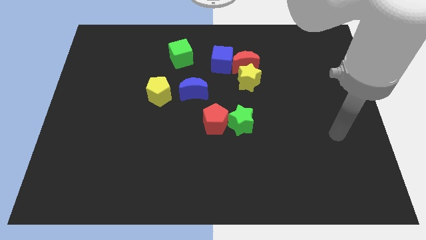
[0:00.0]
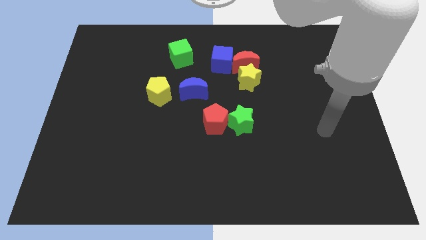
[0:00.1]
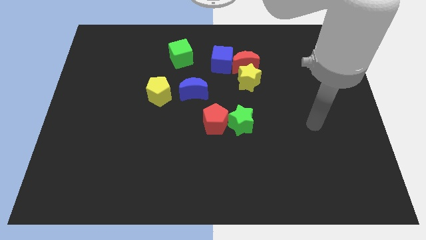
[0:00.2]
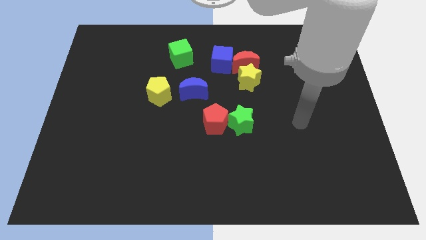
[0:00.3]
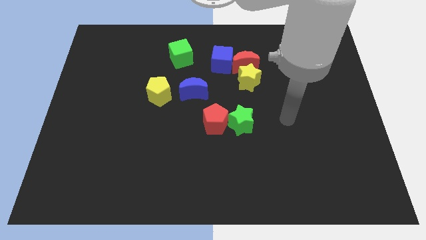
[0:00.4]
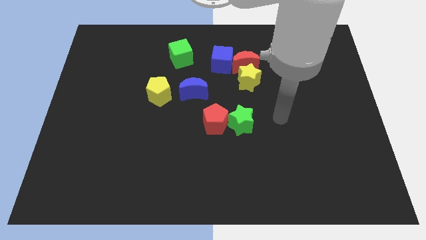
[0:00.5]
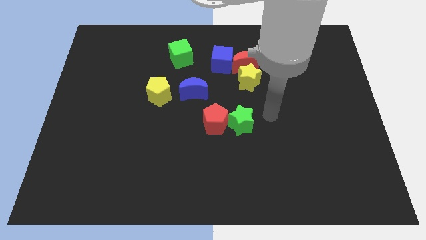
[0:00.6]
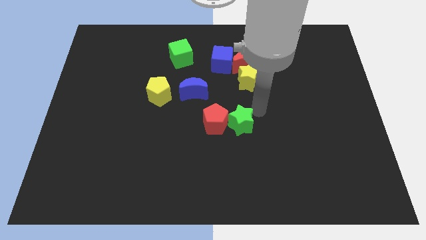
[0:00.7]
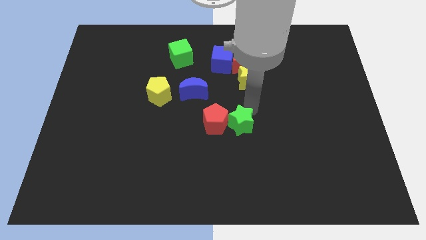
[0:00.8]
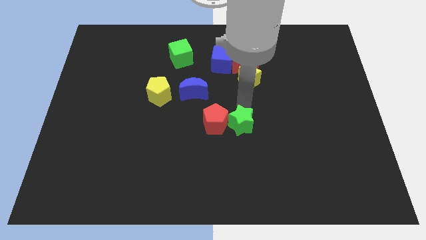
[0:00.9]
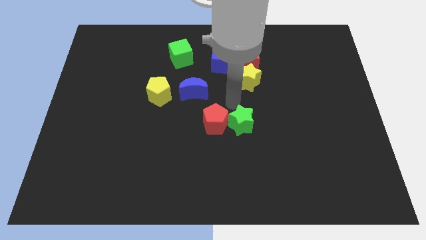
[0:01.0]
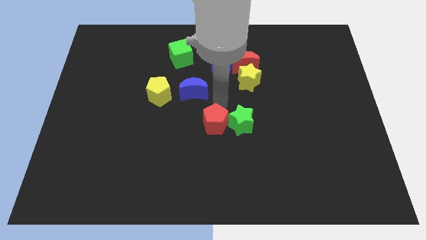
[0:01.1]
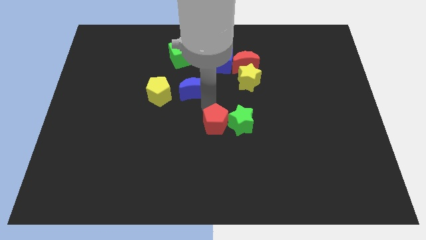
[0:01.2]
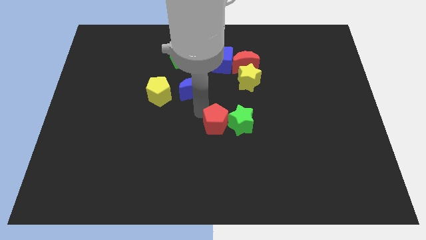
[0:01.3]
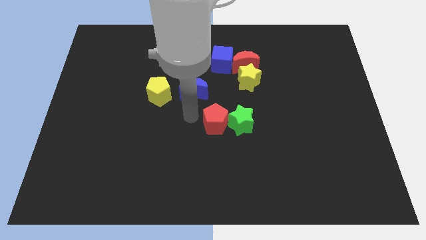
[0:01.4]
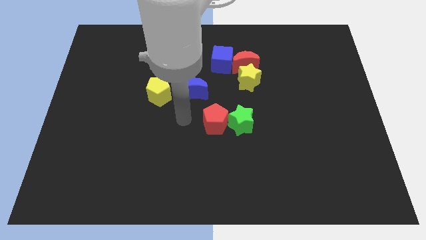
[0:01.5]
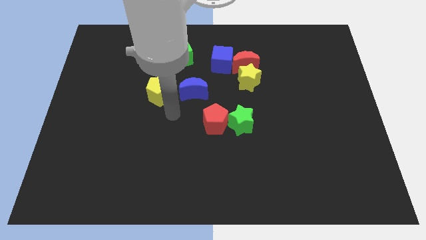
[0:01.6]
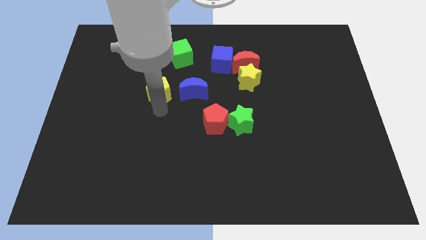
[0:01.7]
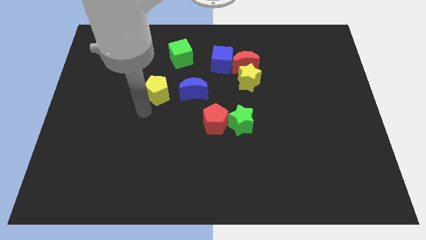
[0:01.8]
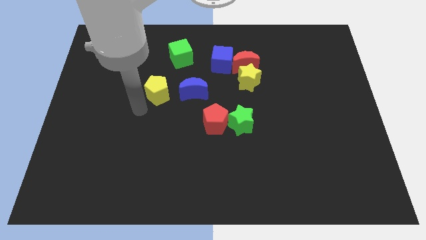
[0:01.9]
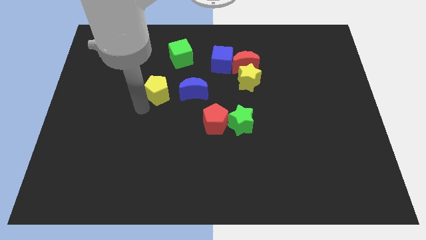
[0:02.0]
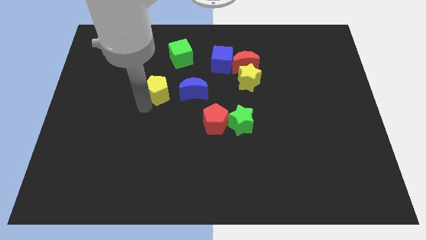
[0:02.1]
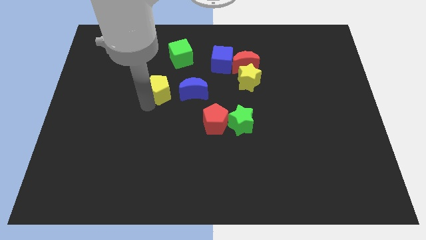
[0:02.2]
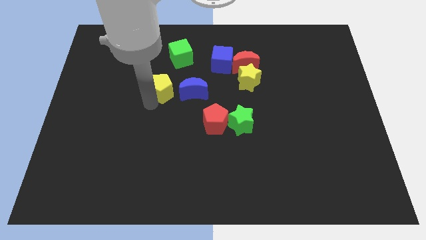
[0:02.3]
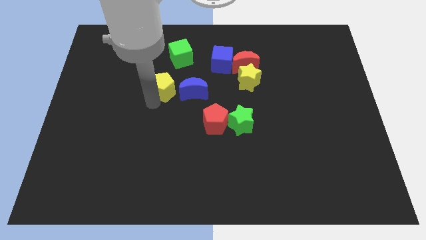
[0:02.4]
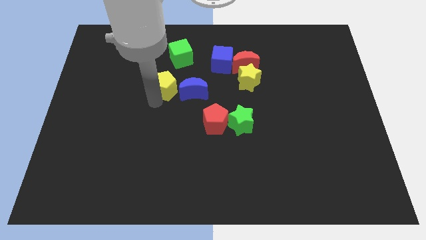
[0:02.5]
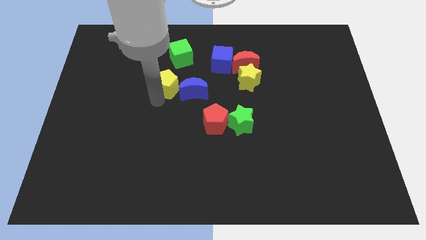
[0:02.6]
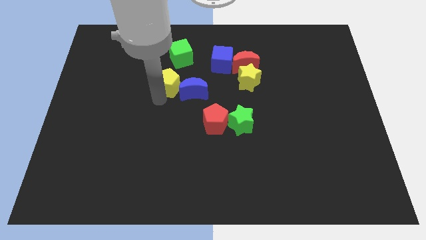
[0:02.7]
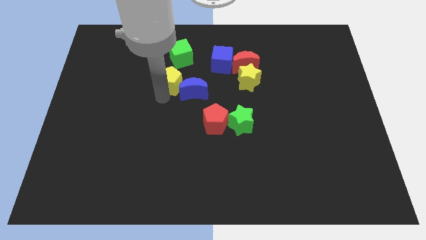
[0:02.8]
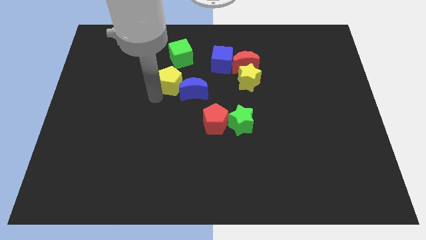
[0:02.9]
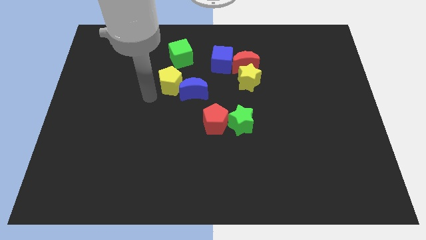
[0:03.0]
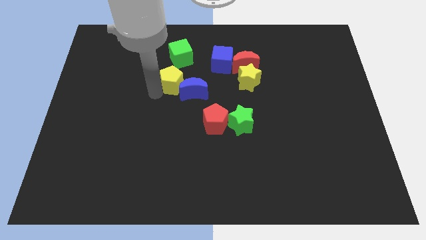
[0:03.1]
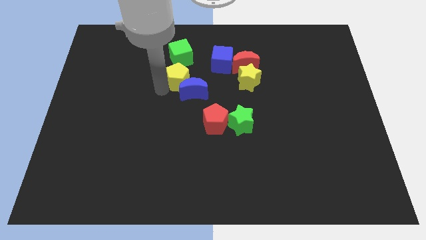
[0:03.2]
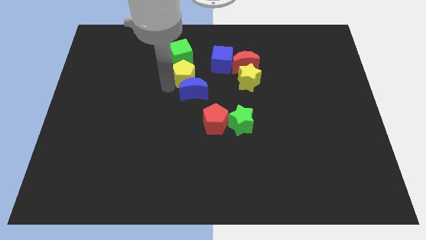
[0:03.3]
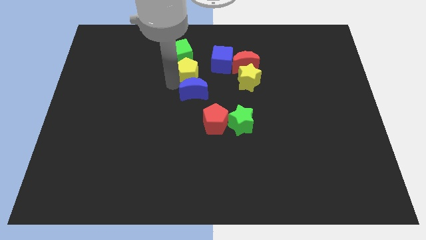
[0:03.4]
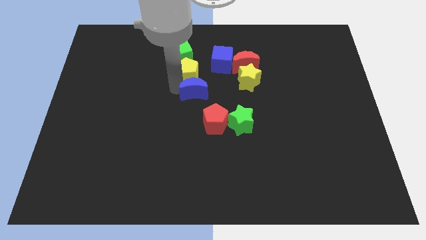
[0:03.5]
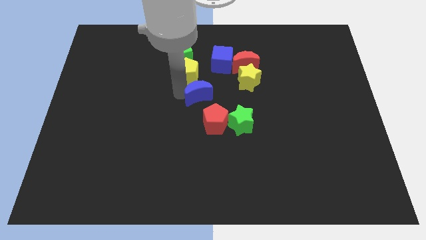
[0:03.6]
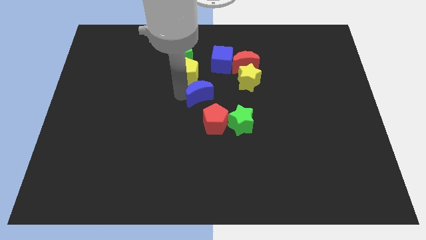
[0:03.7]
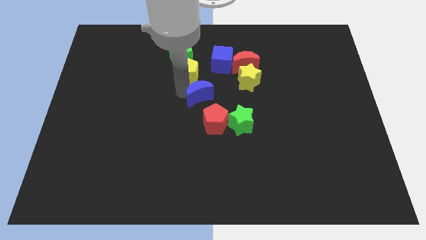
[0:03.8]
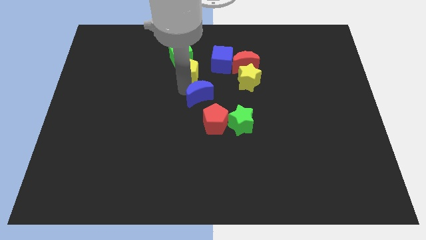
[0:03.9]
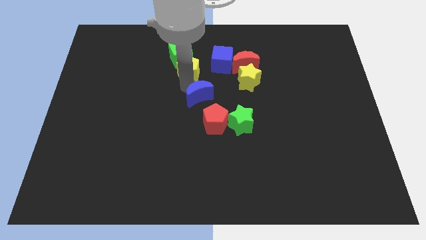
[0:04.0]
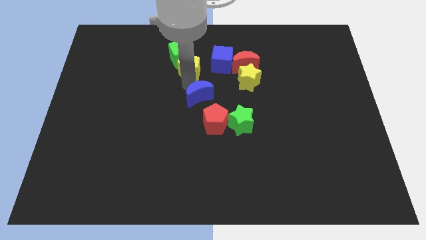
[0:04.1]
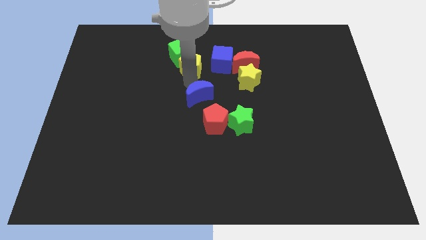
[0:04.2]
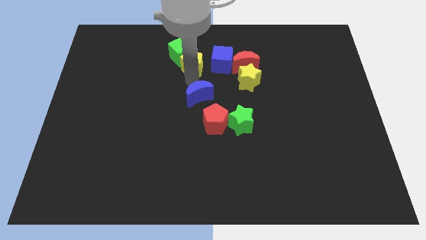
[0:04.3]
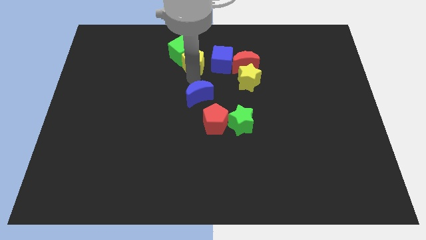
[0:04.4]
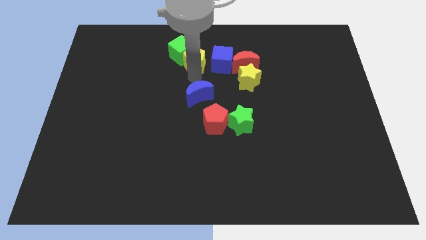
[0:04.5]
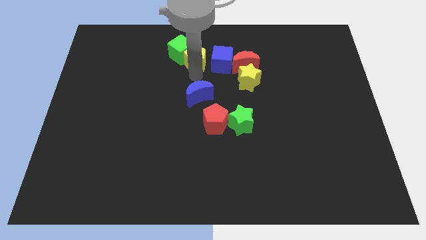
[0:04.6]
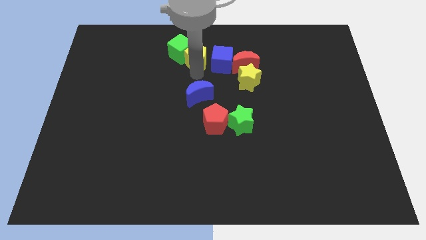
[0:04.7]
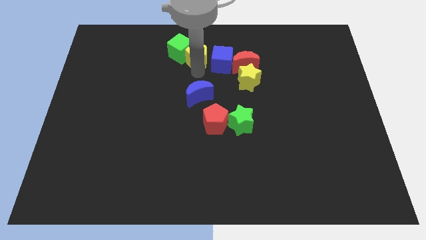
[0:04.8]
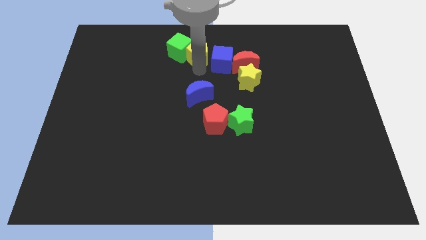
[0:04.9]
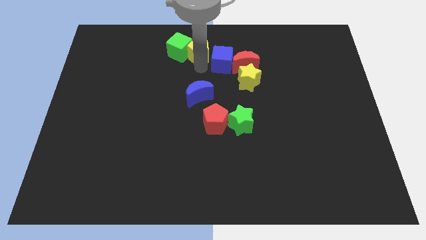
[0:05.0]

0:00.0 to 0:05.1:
slide the yellow pentagon to the top side

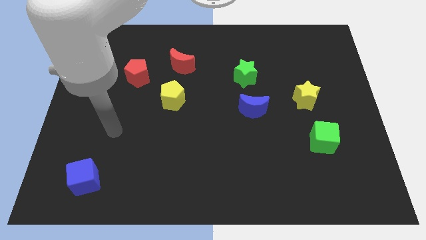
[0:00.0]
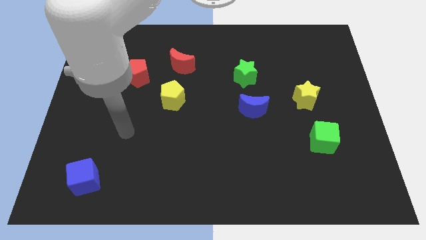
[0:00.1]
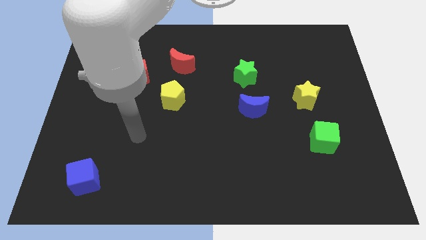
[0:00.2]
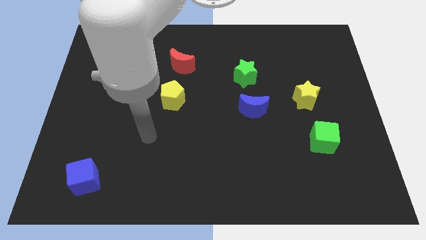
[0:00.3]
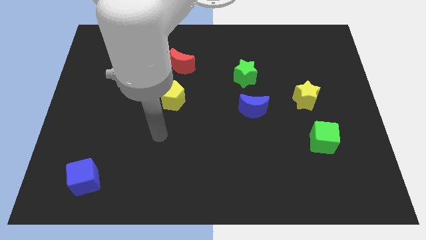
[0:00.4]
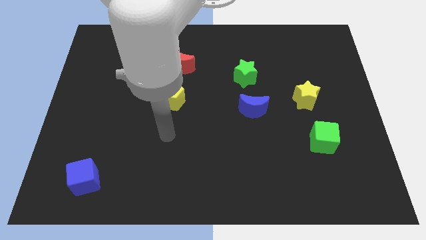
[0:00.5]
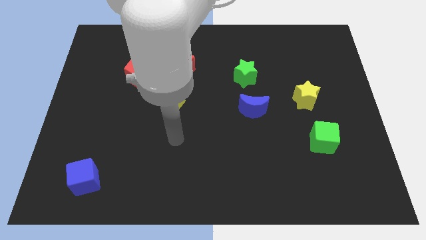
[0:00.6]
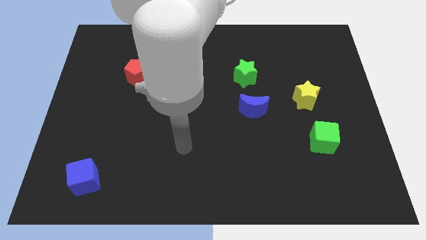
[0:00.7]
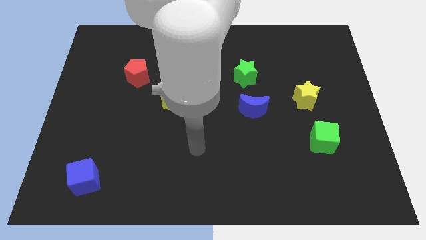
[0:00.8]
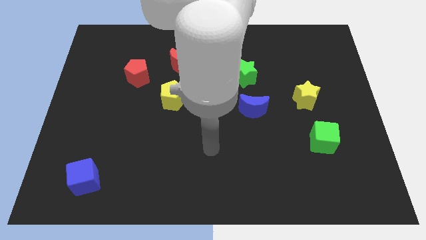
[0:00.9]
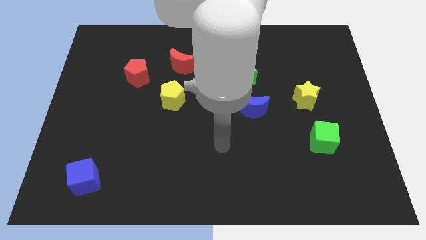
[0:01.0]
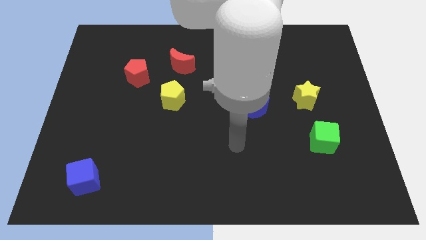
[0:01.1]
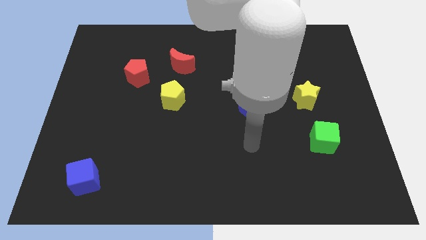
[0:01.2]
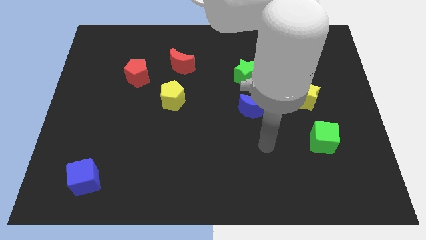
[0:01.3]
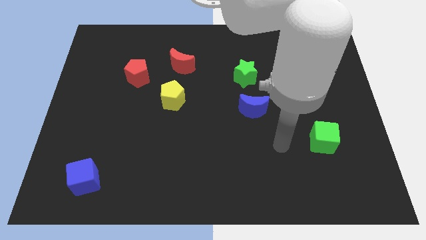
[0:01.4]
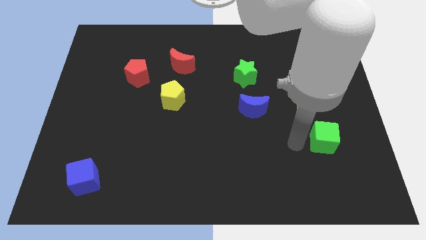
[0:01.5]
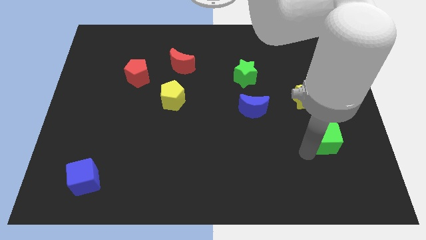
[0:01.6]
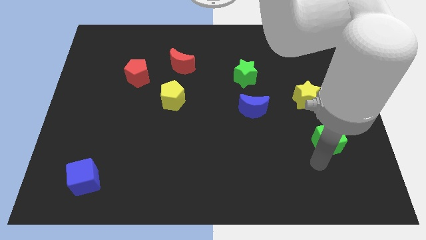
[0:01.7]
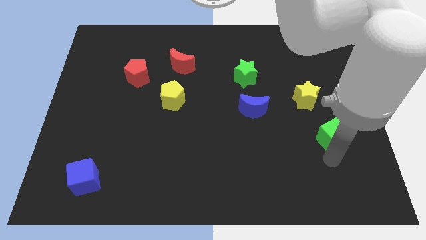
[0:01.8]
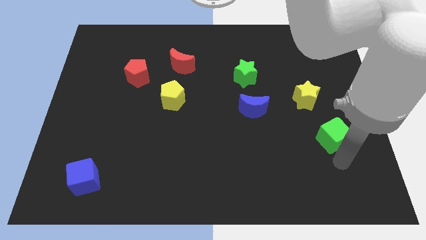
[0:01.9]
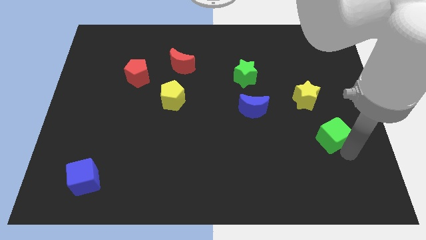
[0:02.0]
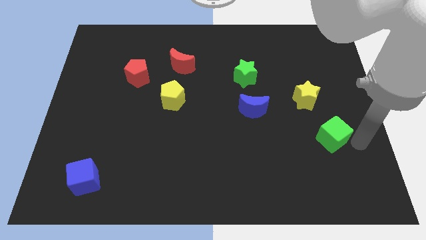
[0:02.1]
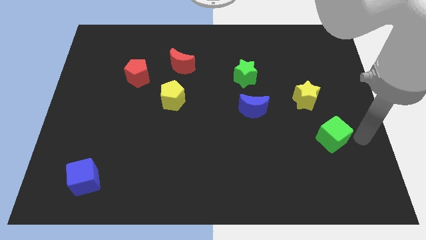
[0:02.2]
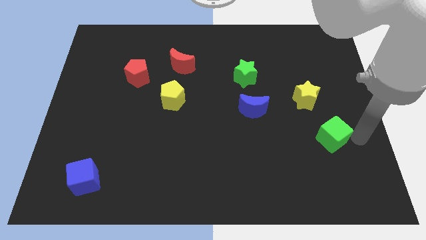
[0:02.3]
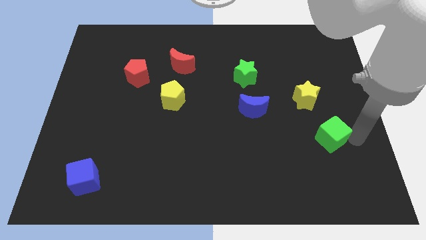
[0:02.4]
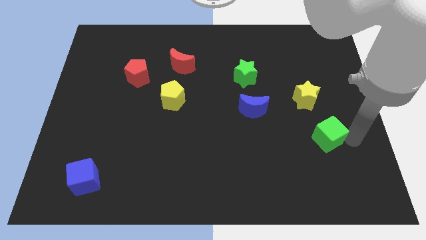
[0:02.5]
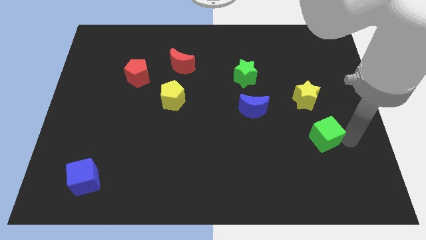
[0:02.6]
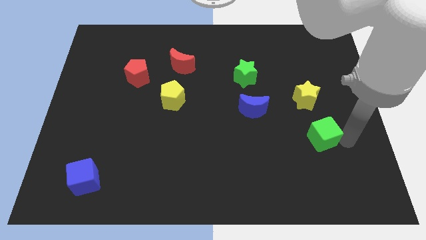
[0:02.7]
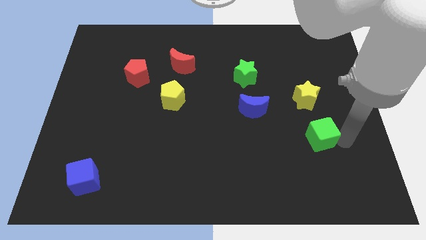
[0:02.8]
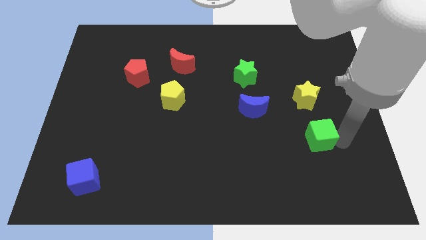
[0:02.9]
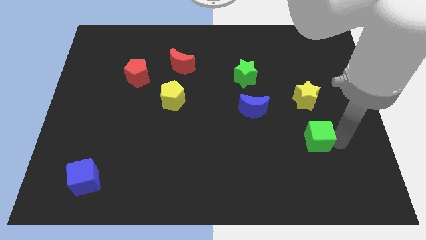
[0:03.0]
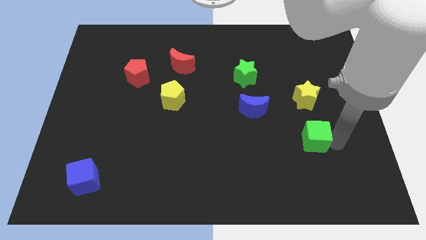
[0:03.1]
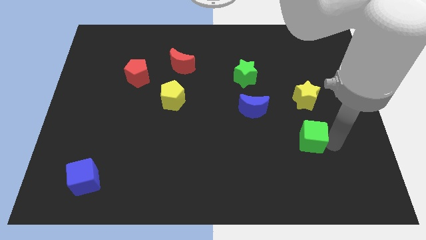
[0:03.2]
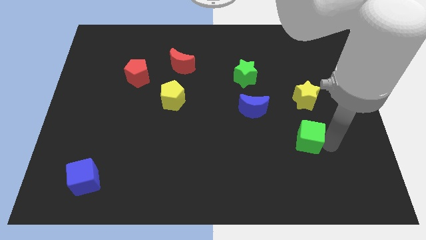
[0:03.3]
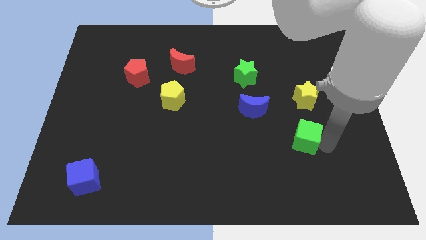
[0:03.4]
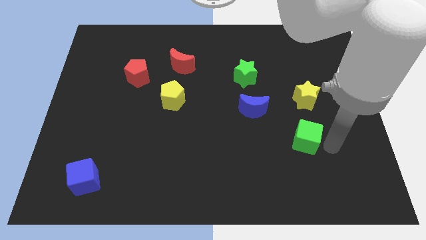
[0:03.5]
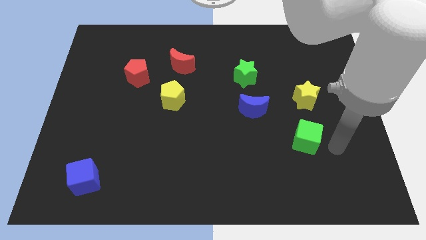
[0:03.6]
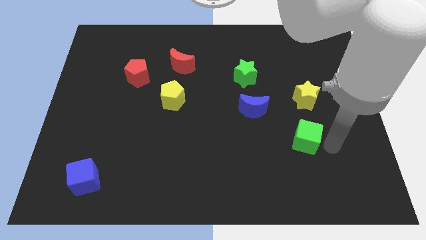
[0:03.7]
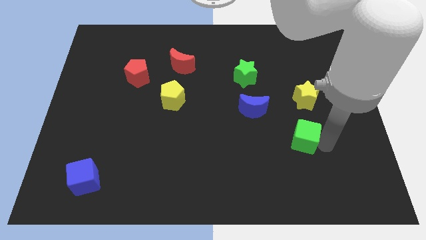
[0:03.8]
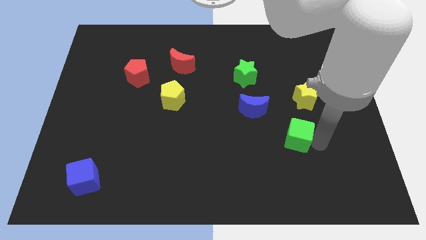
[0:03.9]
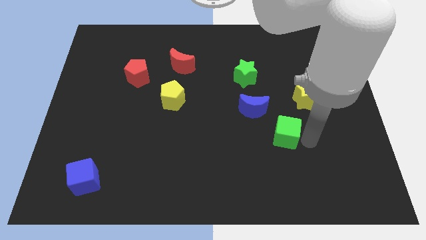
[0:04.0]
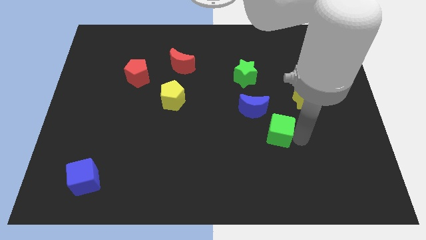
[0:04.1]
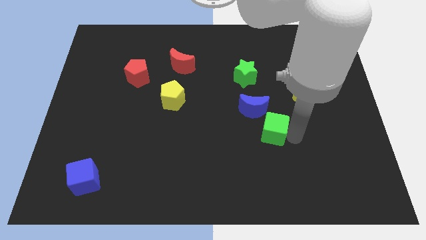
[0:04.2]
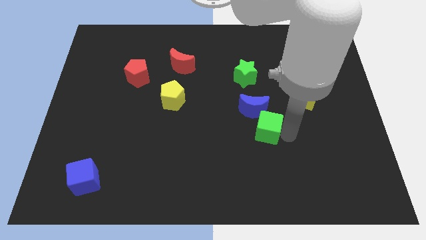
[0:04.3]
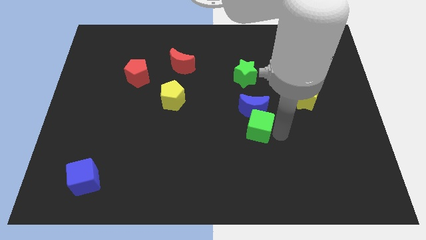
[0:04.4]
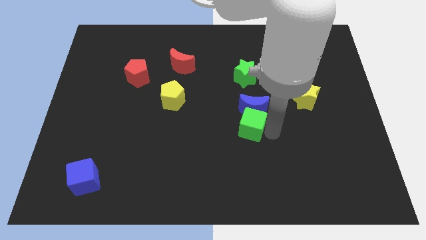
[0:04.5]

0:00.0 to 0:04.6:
put the green cube to the middle of the board
